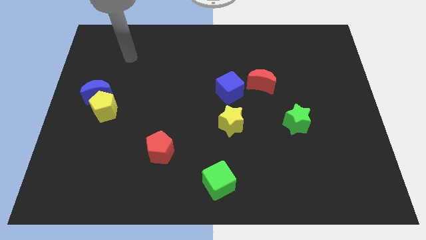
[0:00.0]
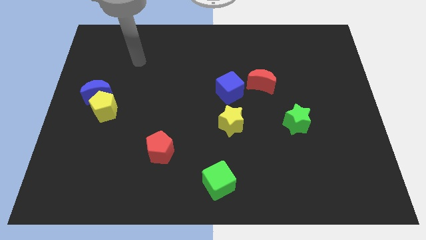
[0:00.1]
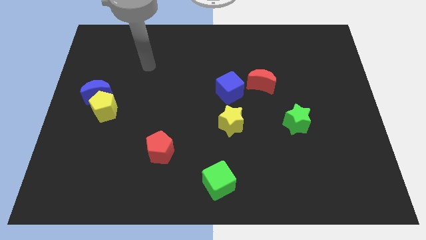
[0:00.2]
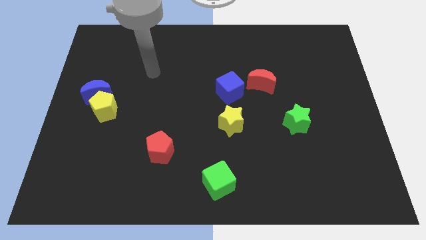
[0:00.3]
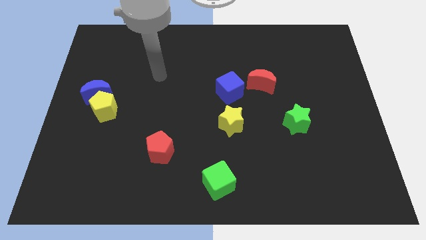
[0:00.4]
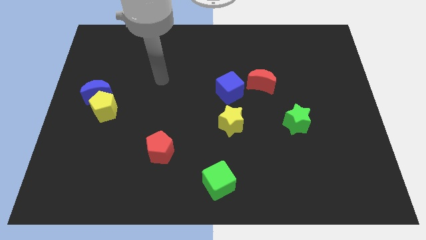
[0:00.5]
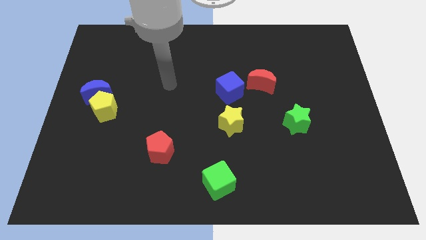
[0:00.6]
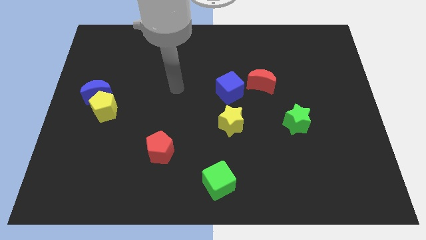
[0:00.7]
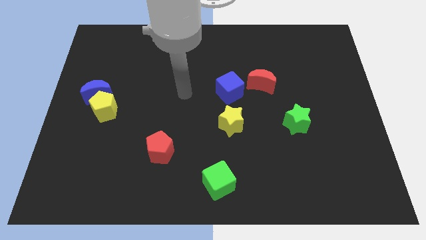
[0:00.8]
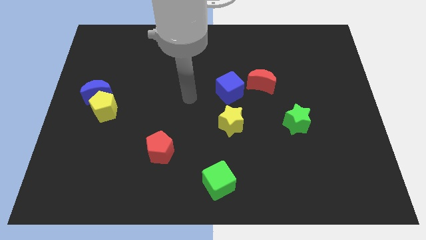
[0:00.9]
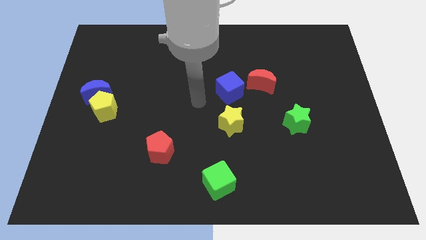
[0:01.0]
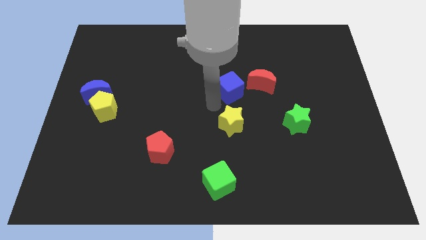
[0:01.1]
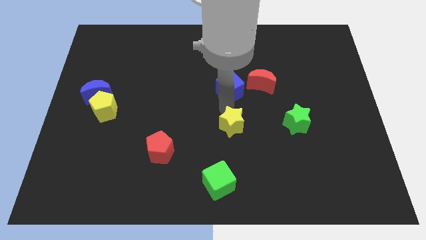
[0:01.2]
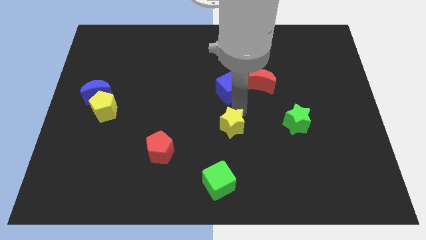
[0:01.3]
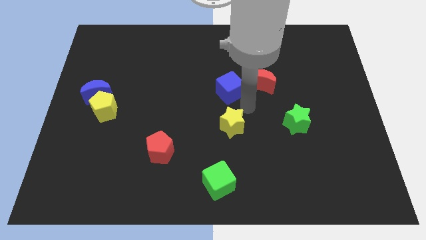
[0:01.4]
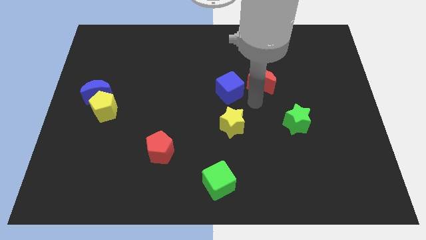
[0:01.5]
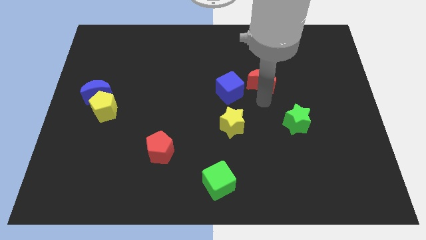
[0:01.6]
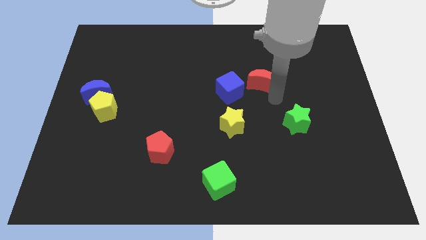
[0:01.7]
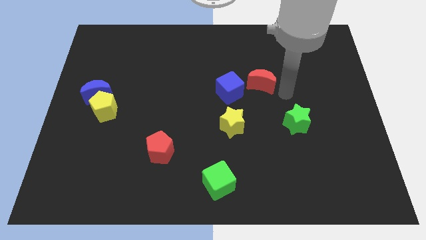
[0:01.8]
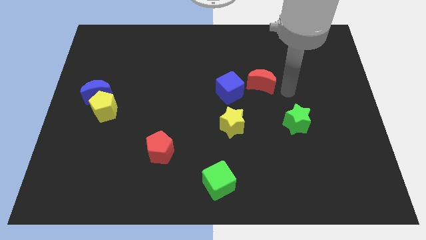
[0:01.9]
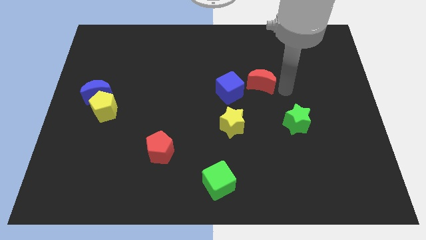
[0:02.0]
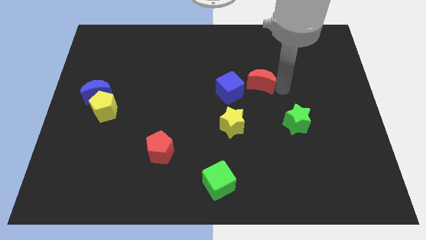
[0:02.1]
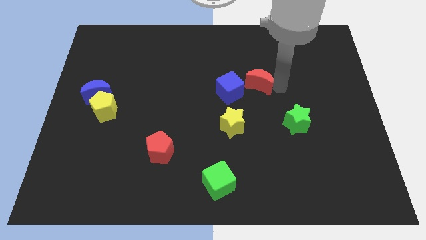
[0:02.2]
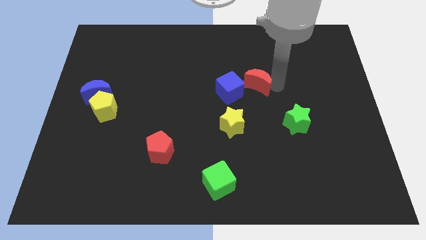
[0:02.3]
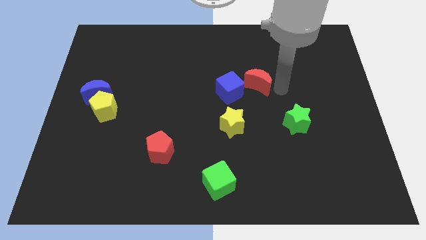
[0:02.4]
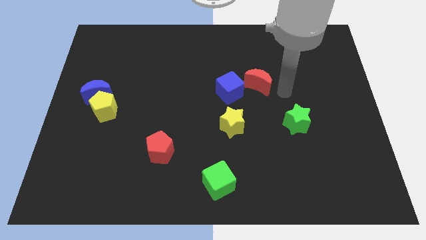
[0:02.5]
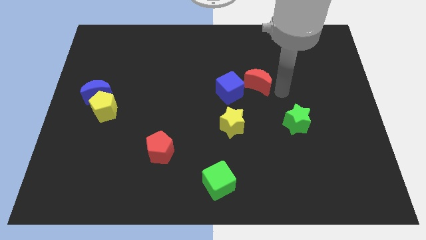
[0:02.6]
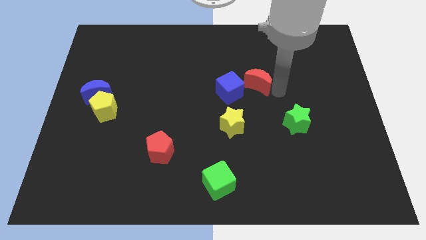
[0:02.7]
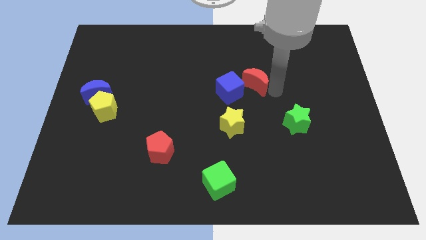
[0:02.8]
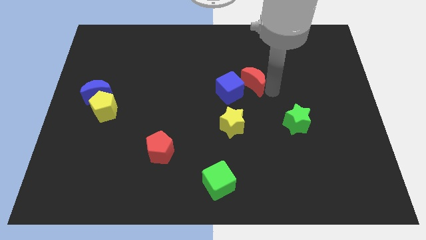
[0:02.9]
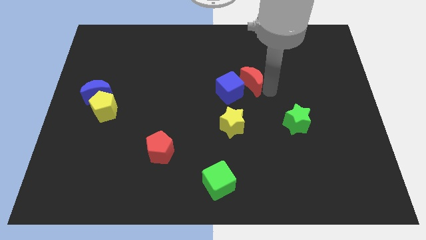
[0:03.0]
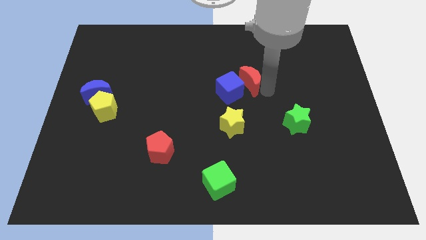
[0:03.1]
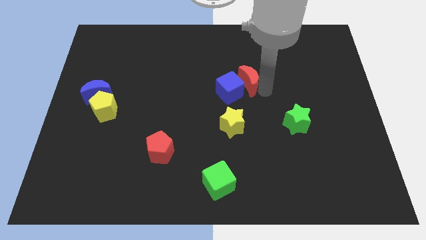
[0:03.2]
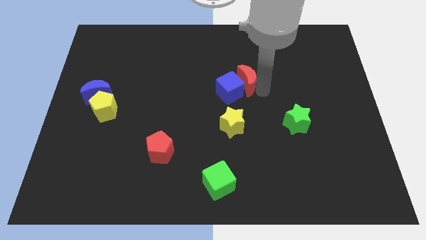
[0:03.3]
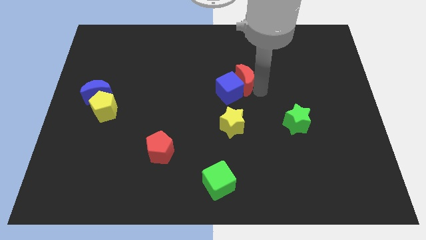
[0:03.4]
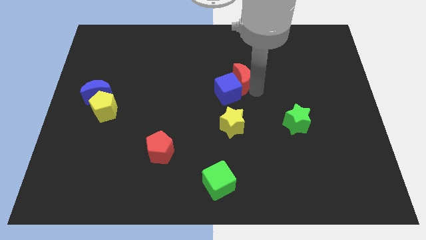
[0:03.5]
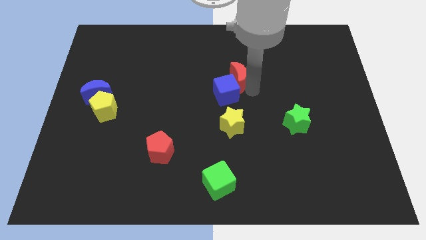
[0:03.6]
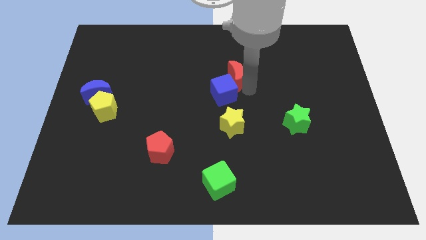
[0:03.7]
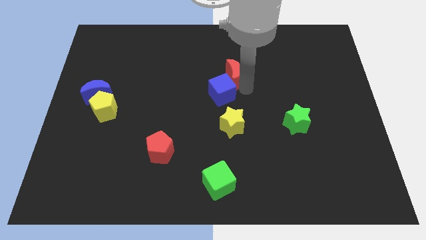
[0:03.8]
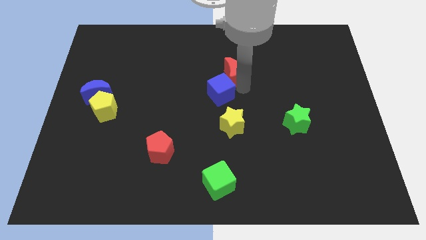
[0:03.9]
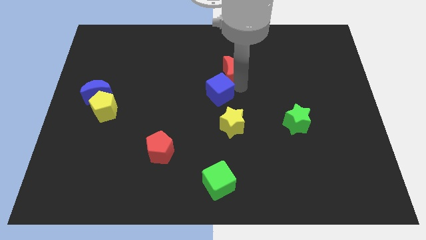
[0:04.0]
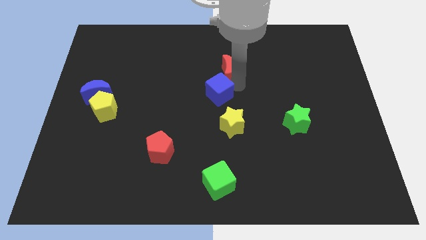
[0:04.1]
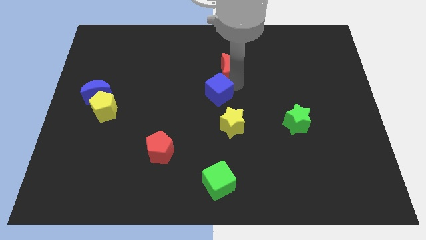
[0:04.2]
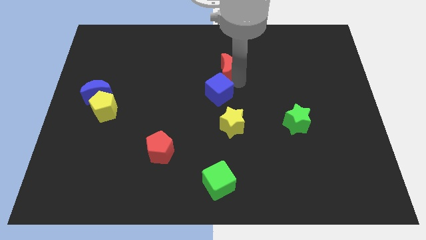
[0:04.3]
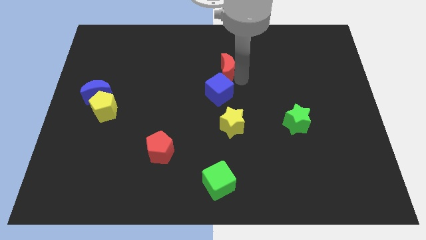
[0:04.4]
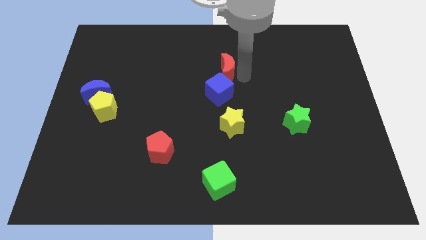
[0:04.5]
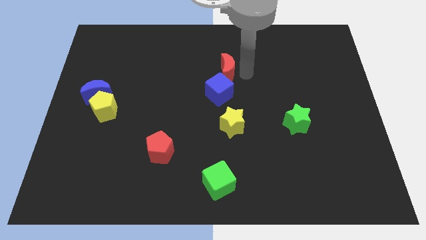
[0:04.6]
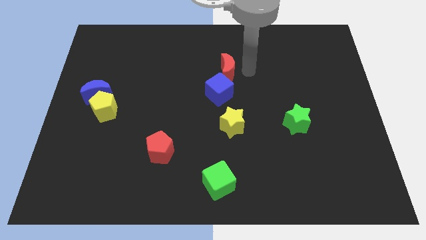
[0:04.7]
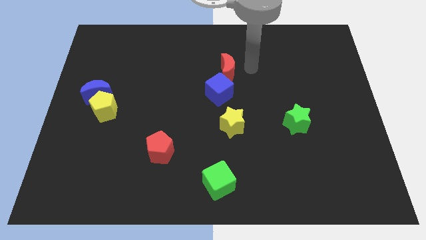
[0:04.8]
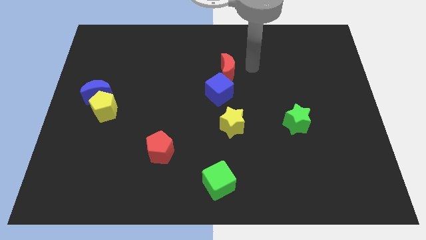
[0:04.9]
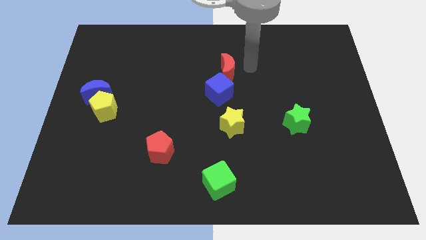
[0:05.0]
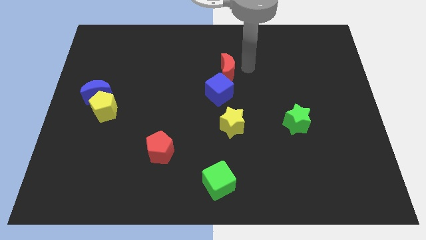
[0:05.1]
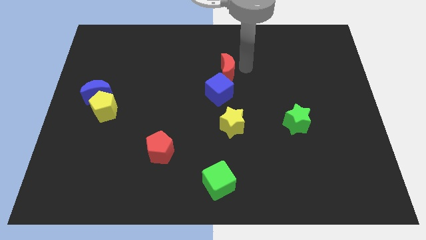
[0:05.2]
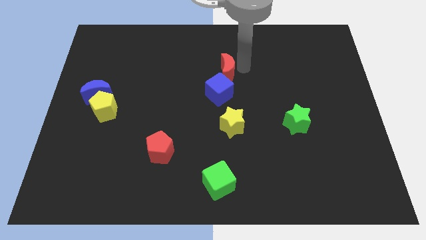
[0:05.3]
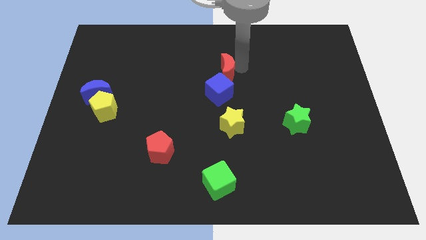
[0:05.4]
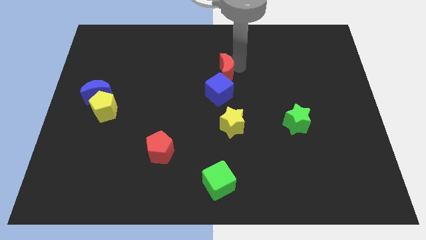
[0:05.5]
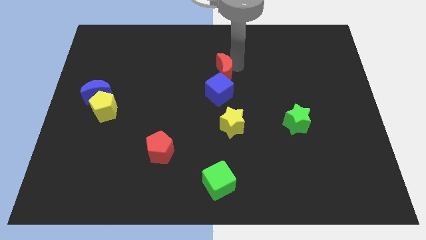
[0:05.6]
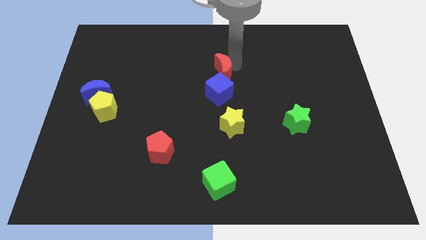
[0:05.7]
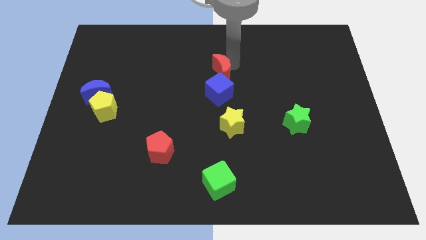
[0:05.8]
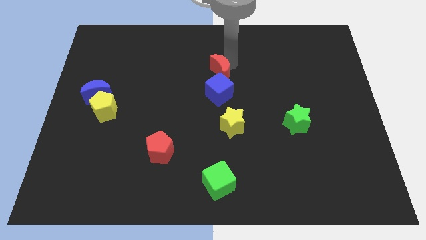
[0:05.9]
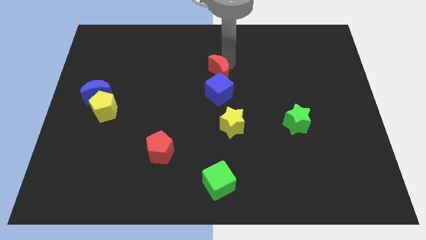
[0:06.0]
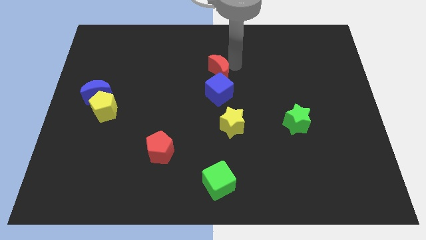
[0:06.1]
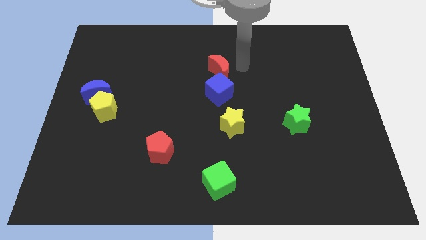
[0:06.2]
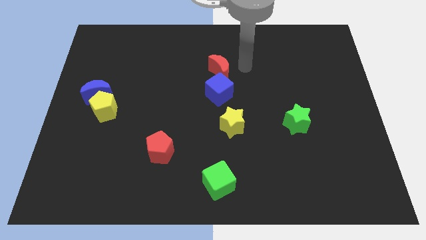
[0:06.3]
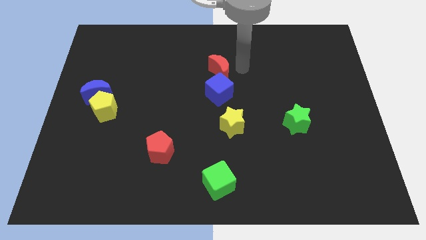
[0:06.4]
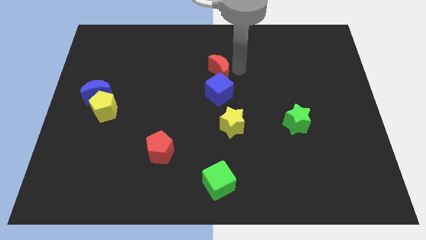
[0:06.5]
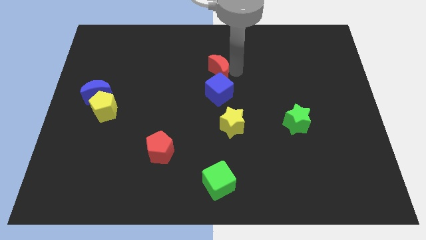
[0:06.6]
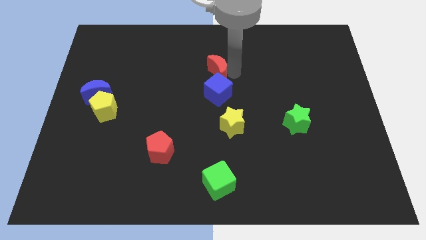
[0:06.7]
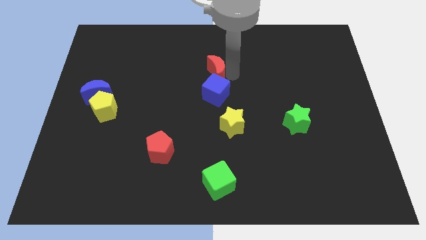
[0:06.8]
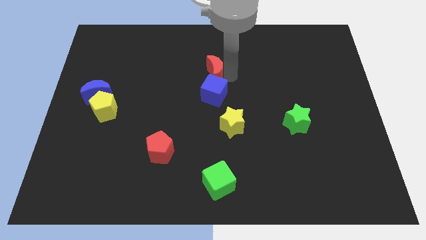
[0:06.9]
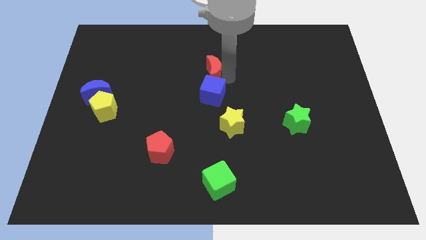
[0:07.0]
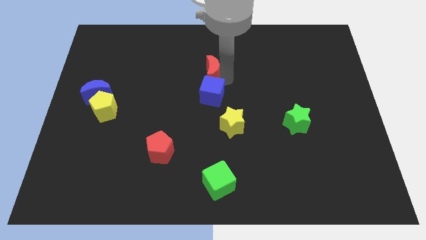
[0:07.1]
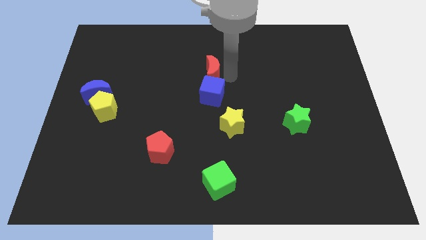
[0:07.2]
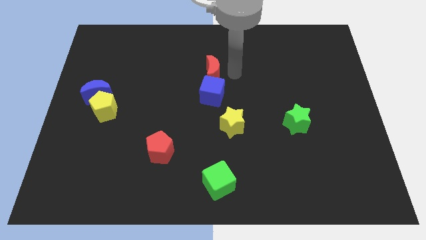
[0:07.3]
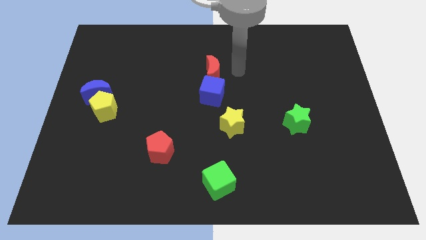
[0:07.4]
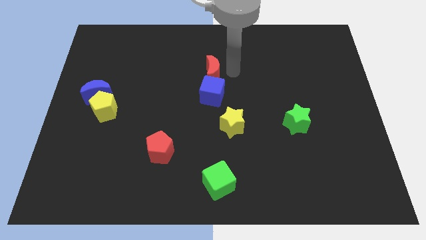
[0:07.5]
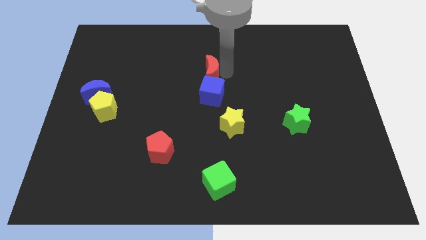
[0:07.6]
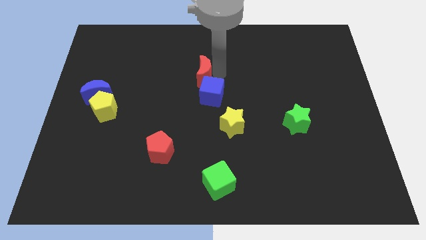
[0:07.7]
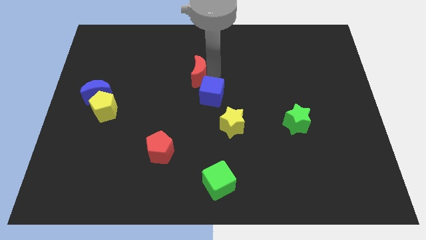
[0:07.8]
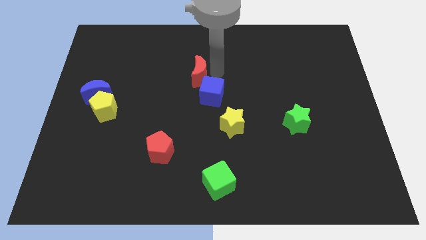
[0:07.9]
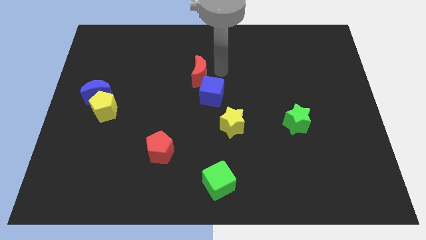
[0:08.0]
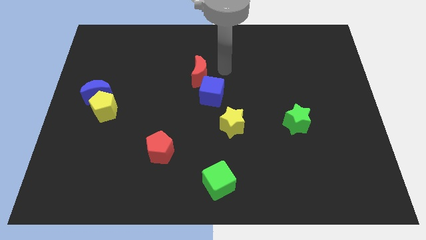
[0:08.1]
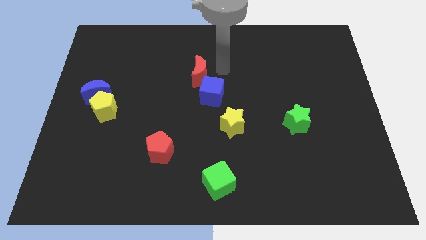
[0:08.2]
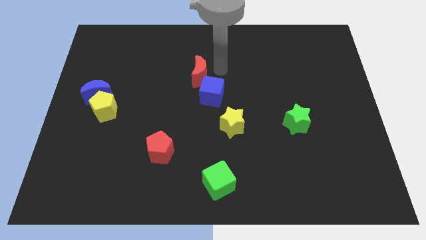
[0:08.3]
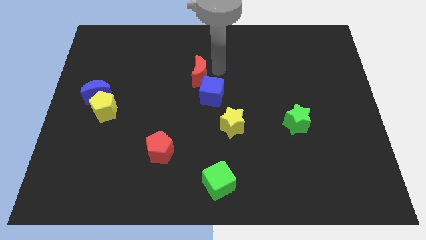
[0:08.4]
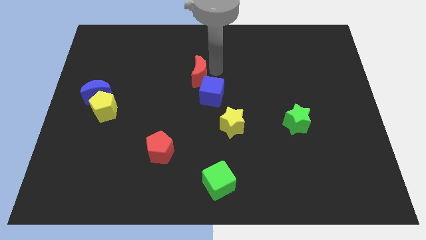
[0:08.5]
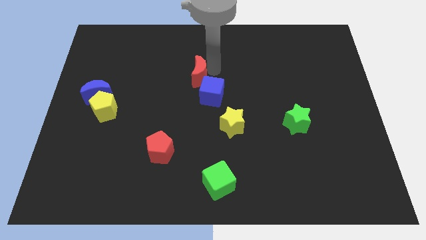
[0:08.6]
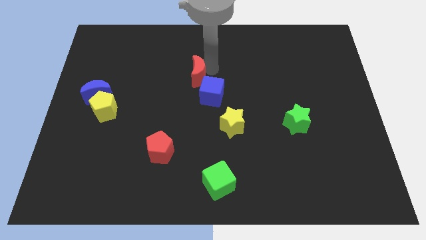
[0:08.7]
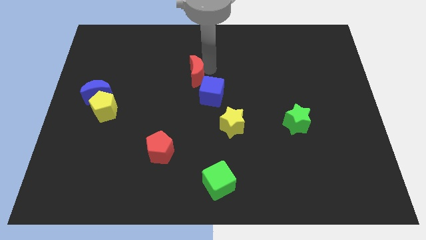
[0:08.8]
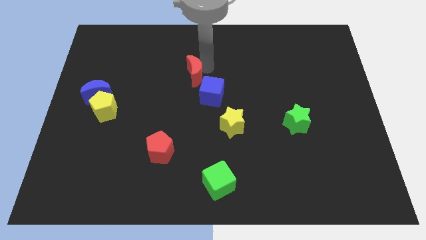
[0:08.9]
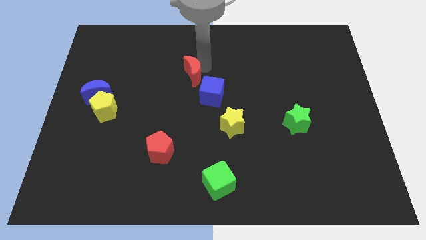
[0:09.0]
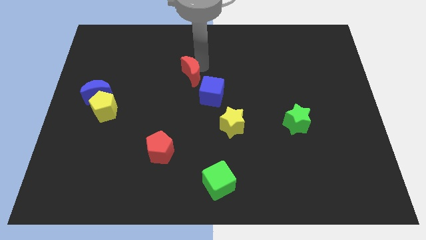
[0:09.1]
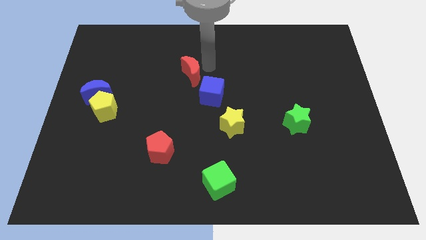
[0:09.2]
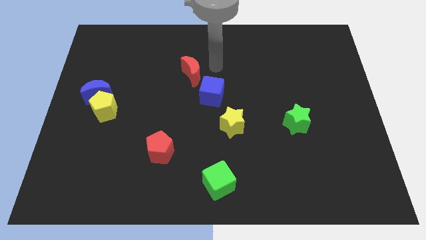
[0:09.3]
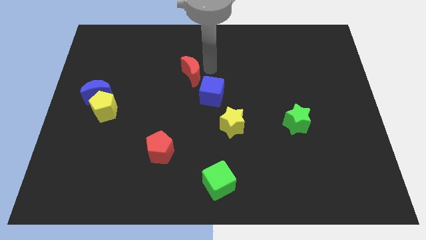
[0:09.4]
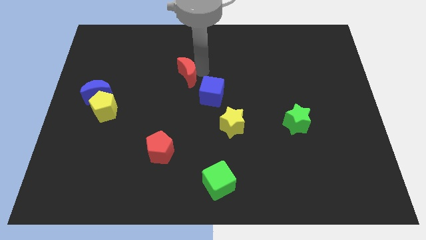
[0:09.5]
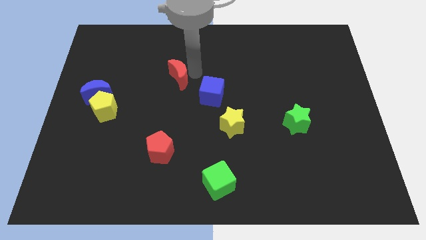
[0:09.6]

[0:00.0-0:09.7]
slide the red moon to the left
